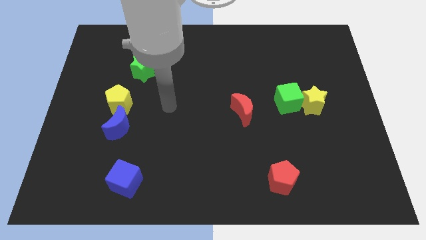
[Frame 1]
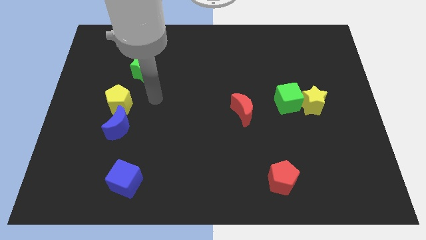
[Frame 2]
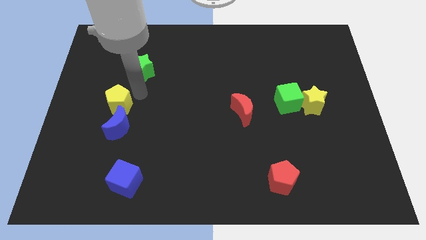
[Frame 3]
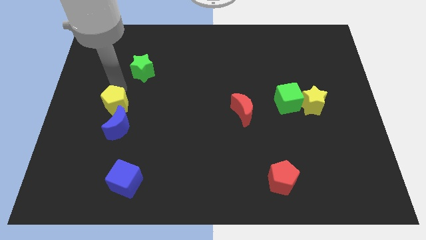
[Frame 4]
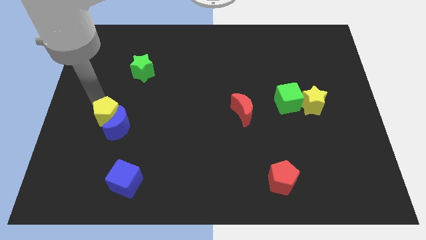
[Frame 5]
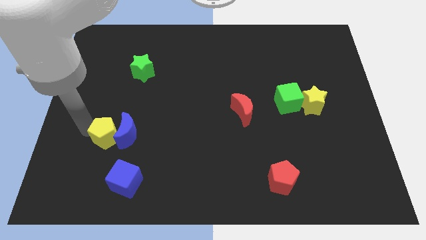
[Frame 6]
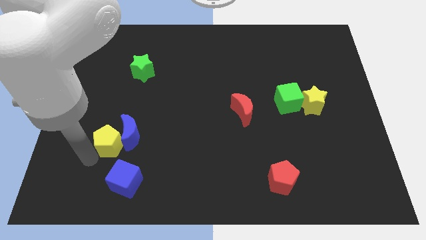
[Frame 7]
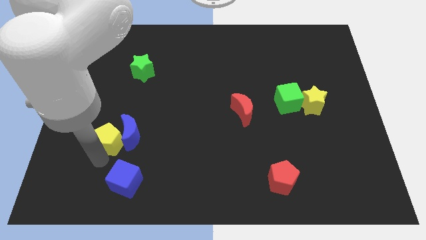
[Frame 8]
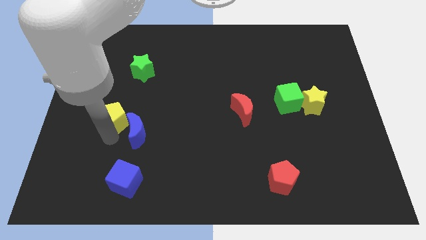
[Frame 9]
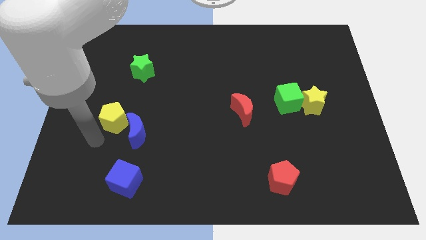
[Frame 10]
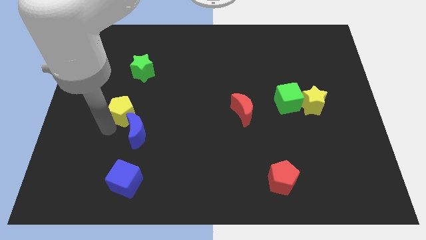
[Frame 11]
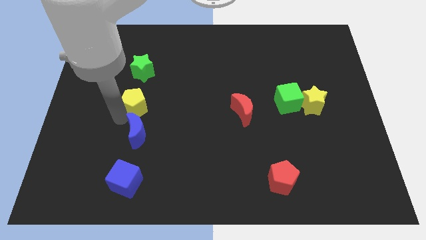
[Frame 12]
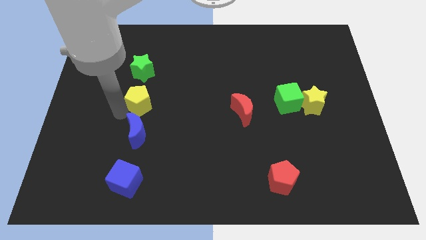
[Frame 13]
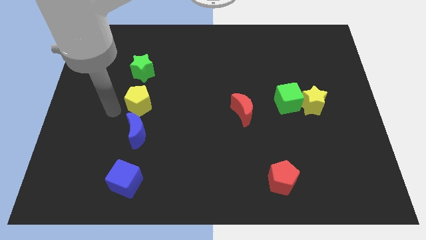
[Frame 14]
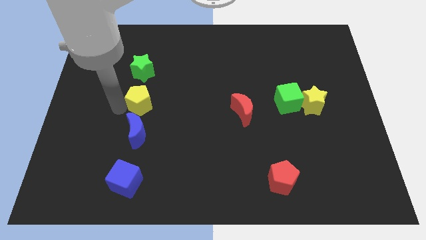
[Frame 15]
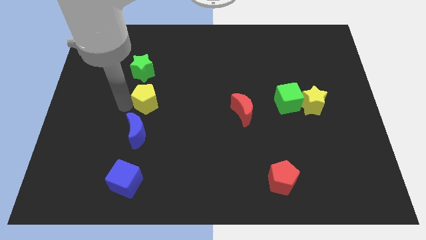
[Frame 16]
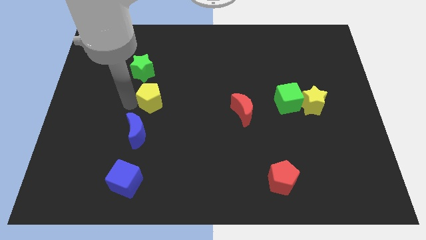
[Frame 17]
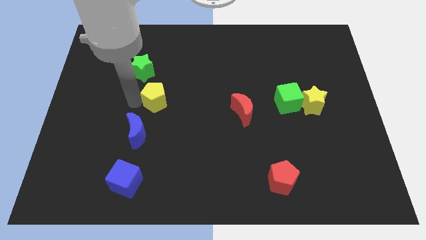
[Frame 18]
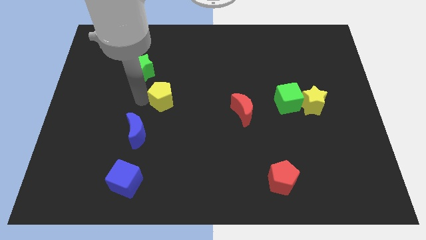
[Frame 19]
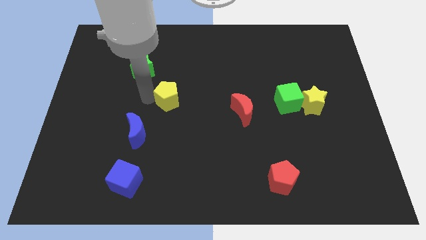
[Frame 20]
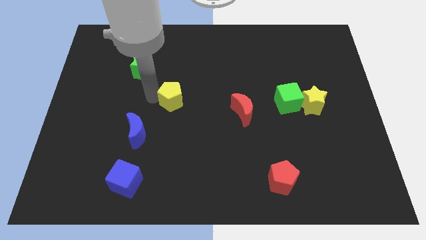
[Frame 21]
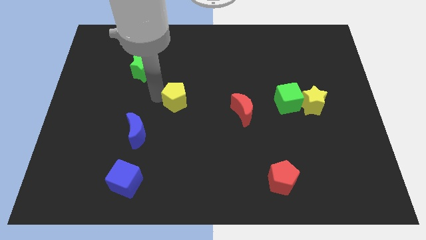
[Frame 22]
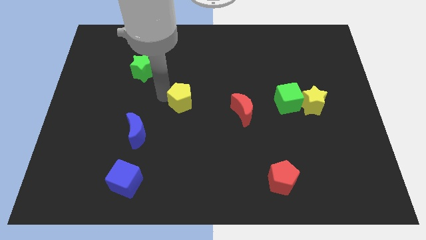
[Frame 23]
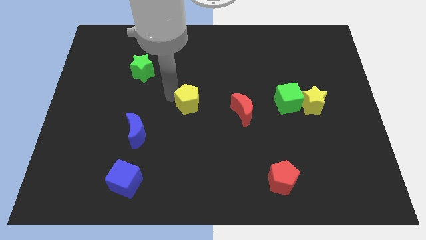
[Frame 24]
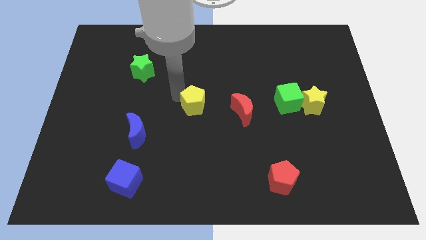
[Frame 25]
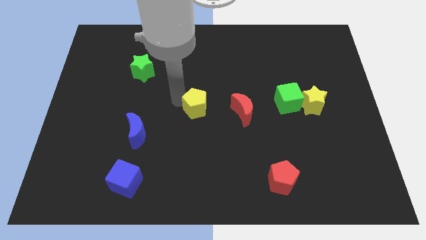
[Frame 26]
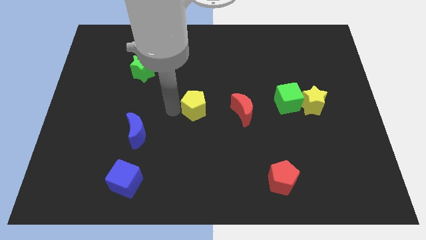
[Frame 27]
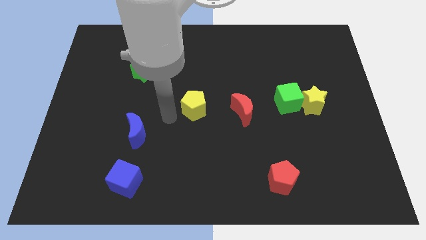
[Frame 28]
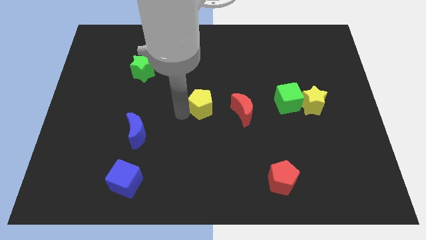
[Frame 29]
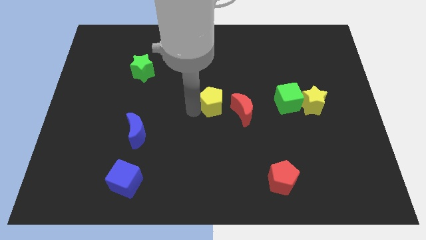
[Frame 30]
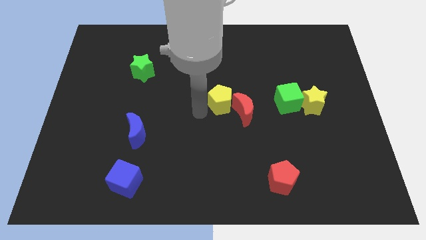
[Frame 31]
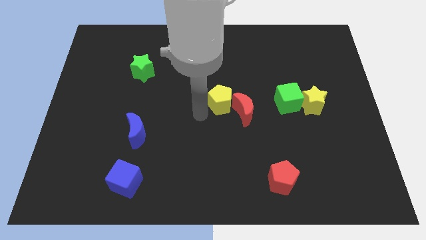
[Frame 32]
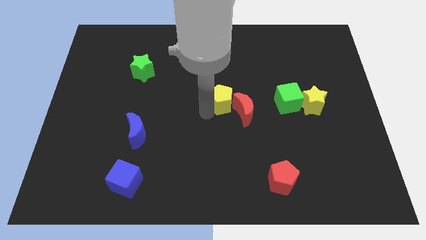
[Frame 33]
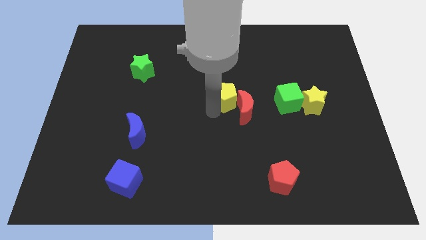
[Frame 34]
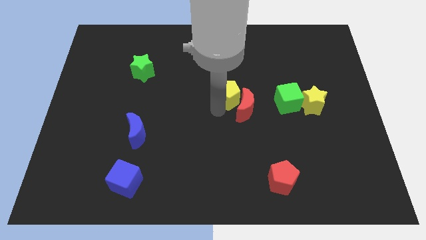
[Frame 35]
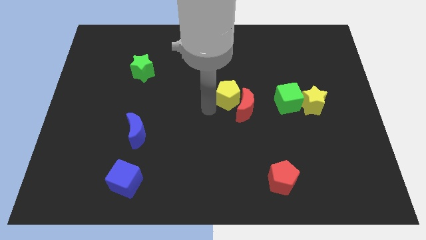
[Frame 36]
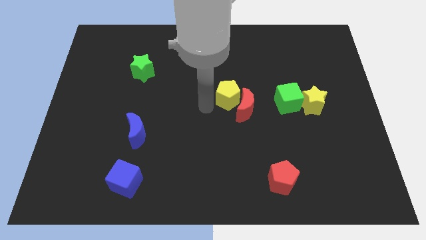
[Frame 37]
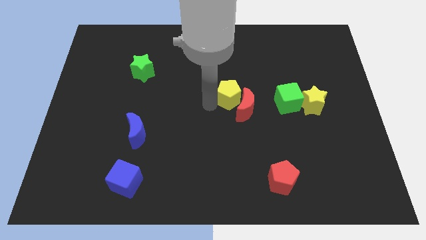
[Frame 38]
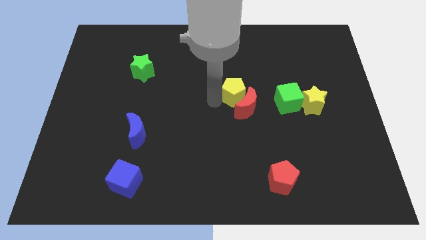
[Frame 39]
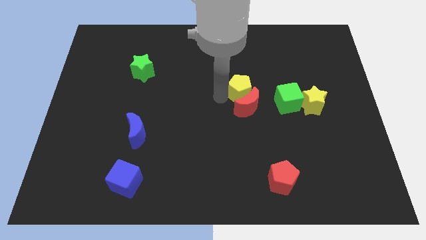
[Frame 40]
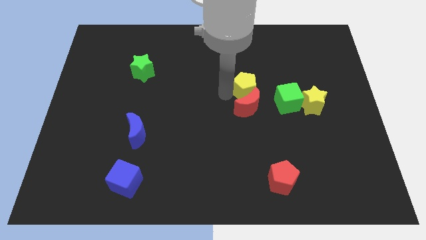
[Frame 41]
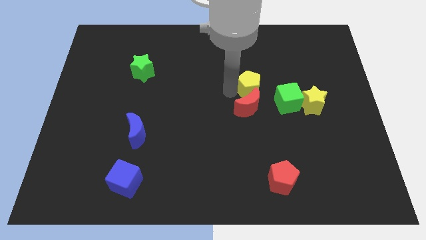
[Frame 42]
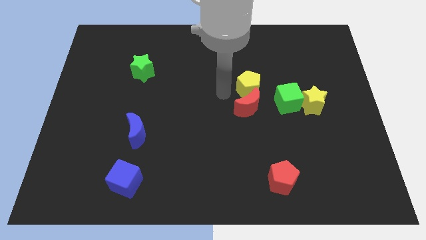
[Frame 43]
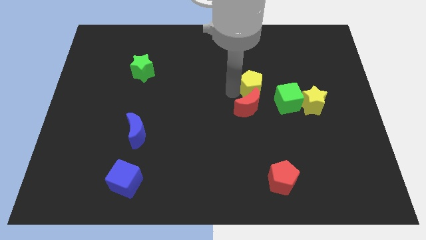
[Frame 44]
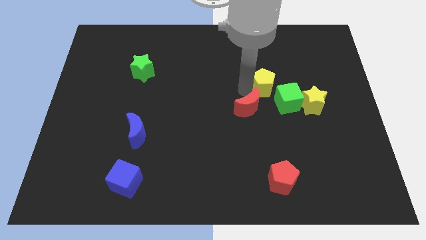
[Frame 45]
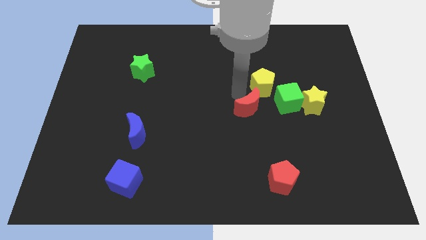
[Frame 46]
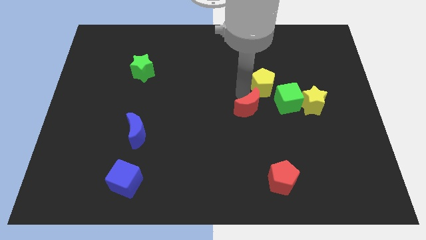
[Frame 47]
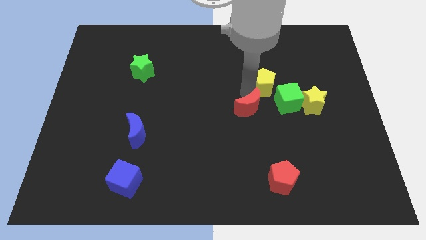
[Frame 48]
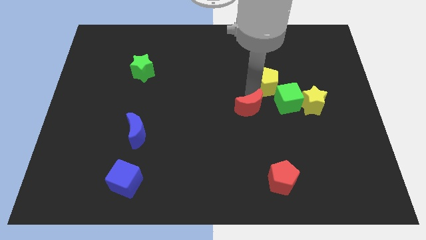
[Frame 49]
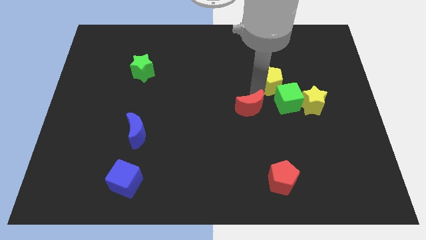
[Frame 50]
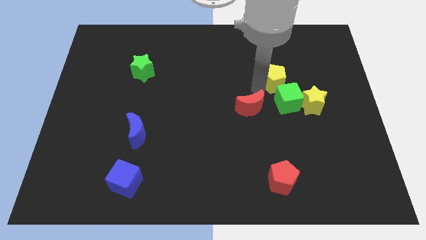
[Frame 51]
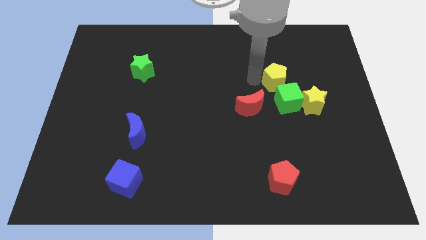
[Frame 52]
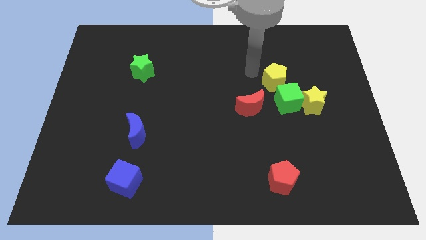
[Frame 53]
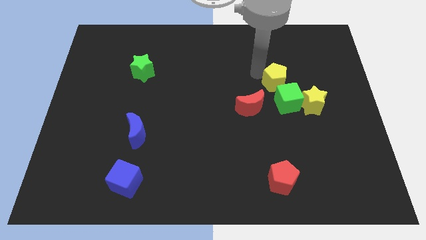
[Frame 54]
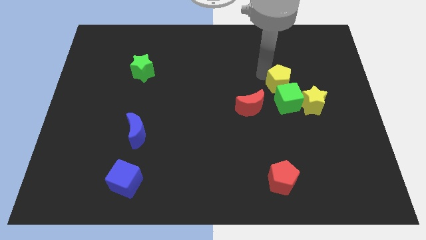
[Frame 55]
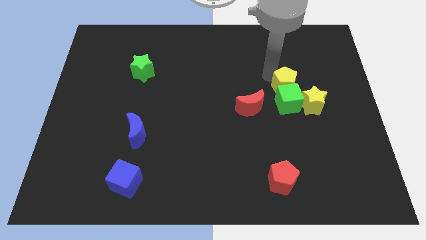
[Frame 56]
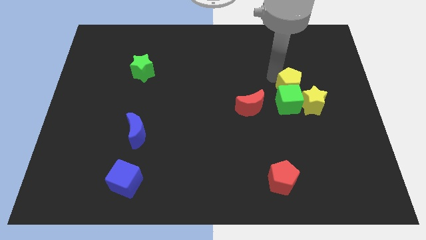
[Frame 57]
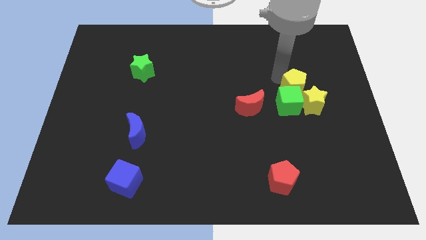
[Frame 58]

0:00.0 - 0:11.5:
push the yellow pentagon close to the yellow star

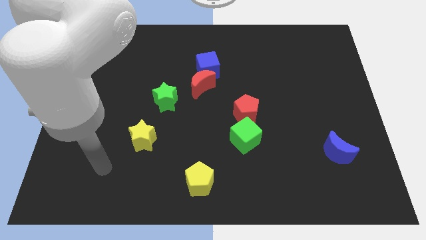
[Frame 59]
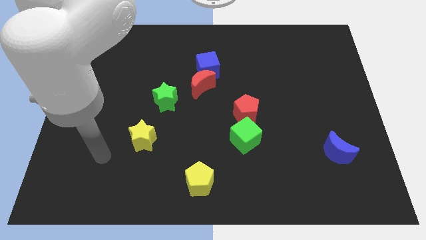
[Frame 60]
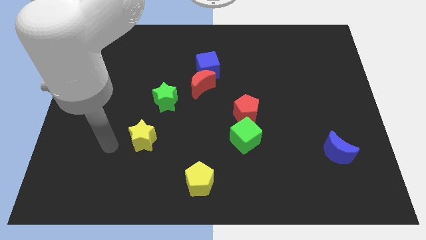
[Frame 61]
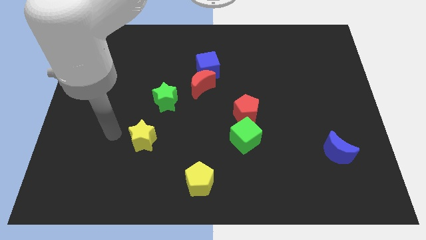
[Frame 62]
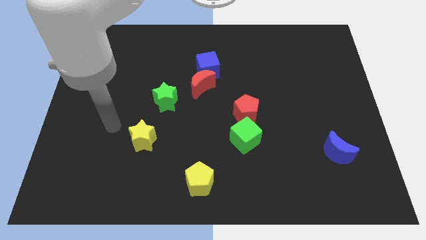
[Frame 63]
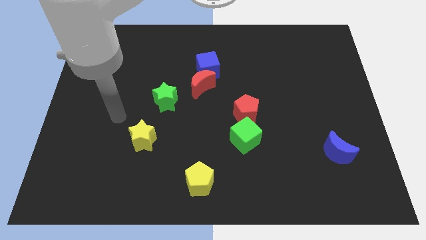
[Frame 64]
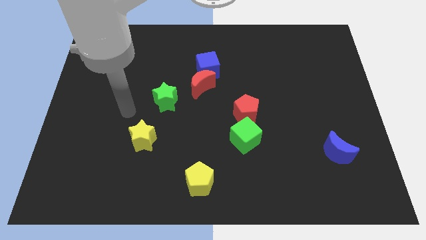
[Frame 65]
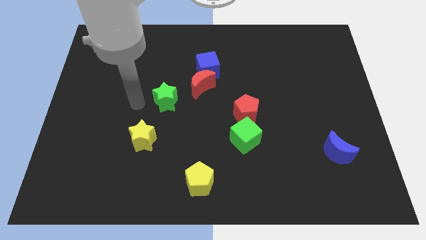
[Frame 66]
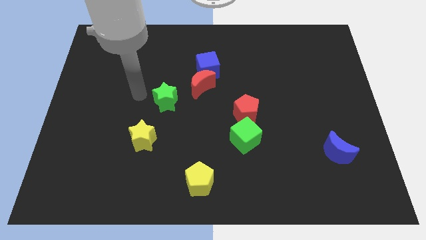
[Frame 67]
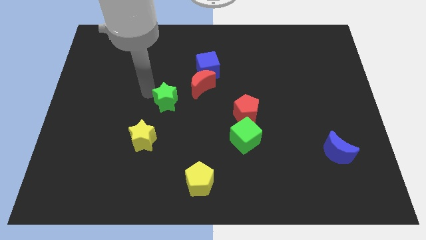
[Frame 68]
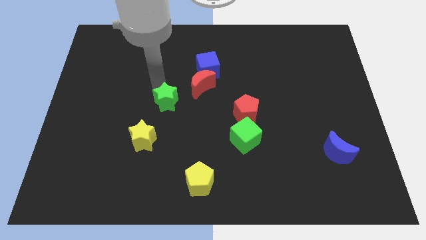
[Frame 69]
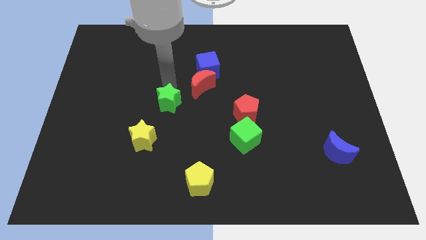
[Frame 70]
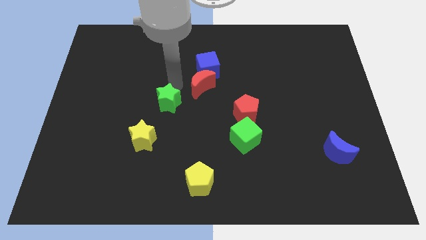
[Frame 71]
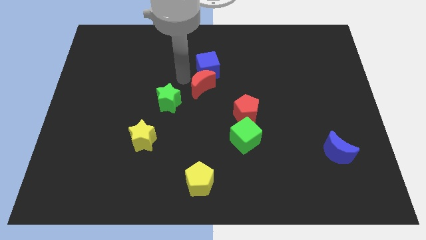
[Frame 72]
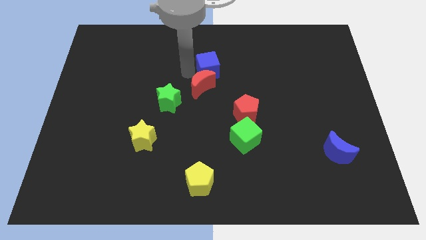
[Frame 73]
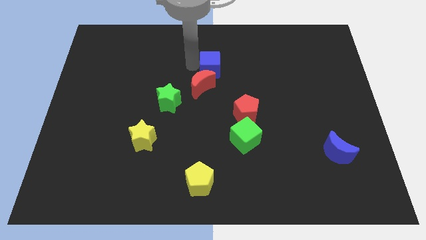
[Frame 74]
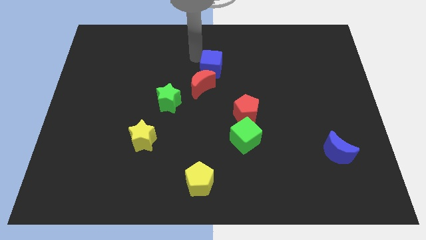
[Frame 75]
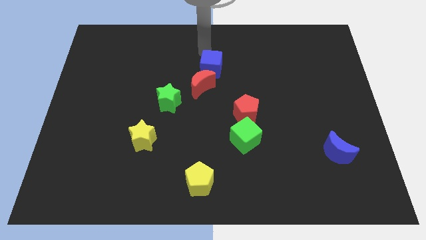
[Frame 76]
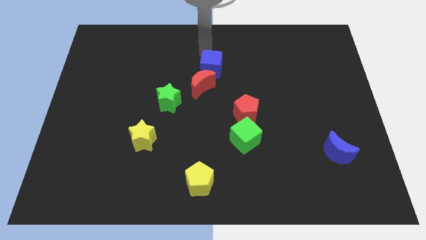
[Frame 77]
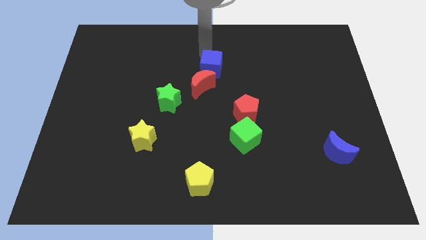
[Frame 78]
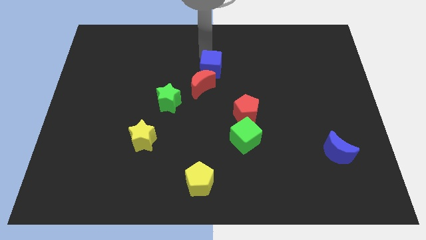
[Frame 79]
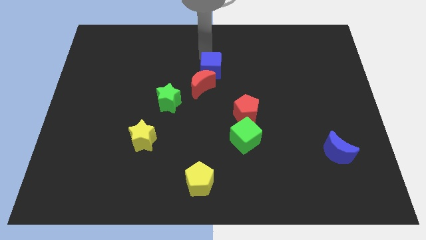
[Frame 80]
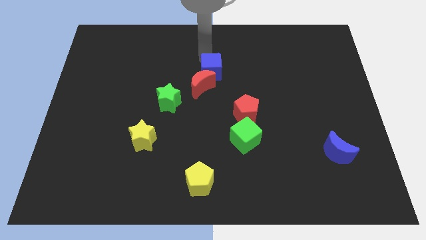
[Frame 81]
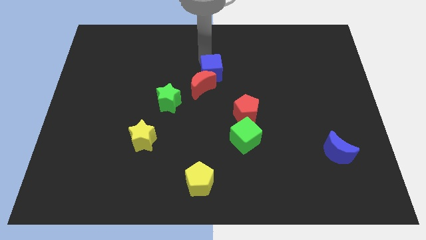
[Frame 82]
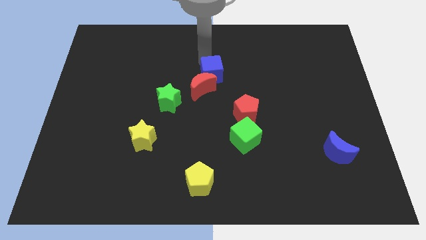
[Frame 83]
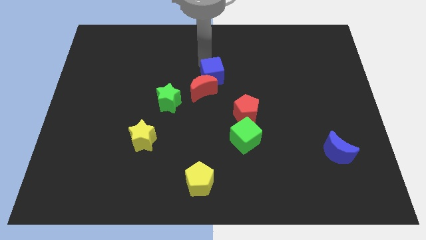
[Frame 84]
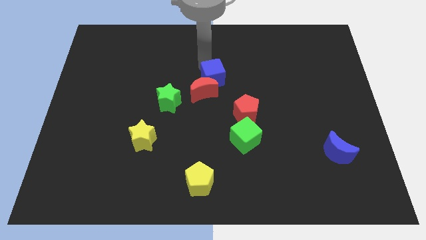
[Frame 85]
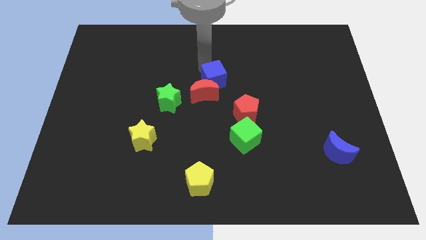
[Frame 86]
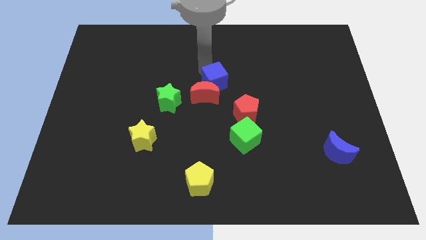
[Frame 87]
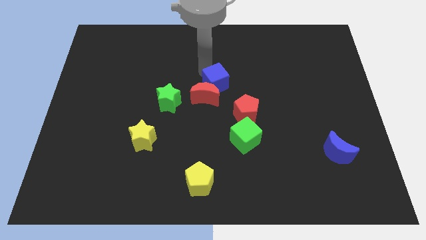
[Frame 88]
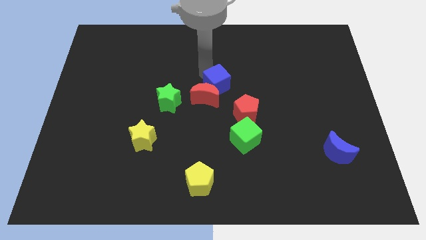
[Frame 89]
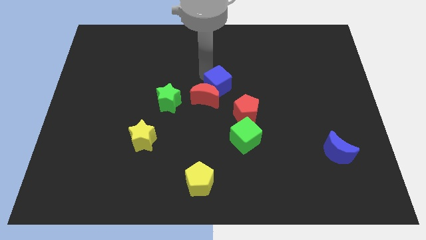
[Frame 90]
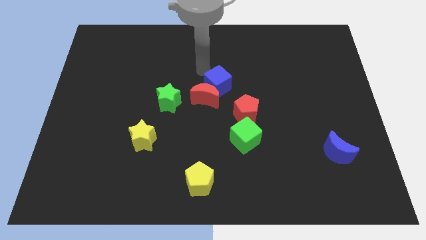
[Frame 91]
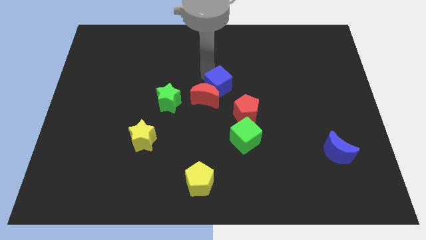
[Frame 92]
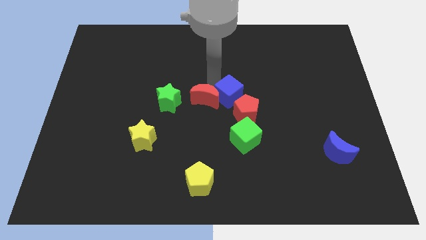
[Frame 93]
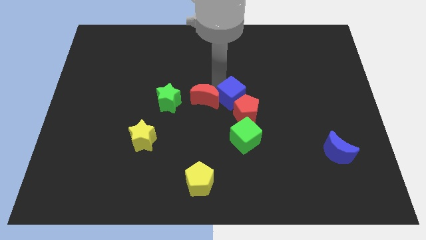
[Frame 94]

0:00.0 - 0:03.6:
push the blue cube towards the red pentagon
